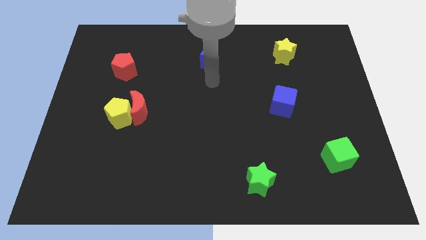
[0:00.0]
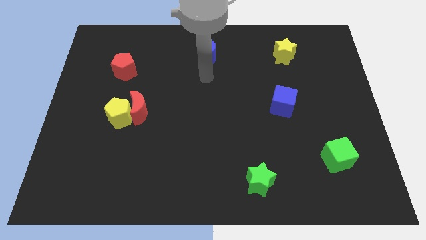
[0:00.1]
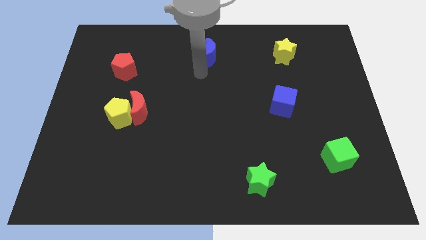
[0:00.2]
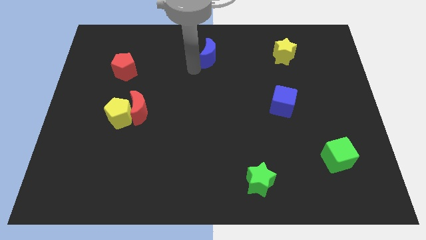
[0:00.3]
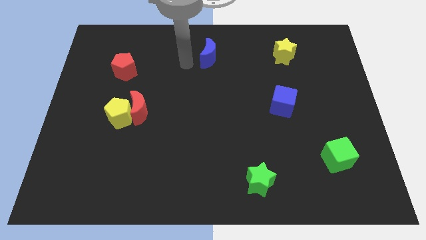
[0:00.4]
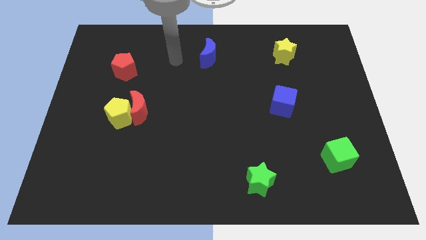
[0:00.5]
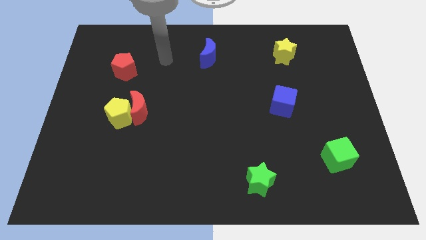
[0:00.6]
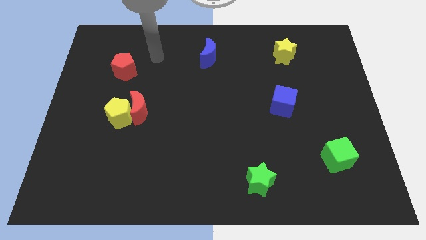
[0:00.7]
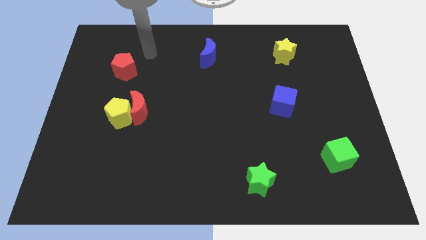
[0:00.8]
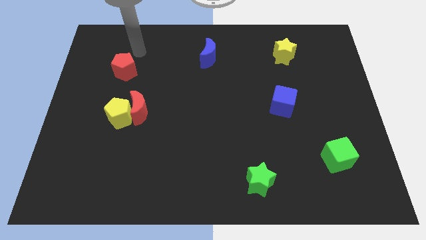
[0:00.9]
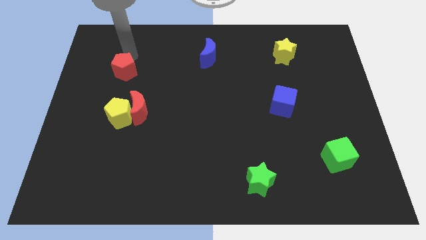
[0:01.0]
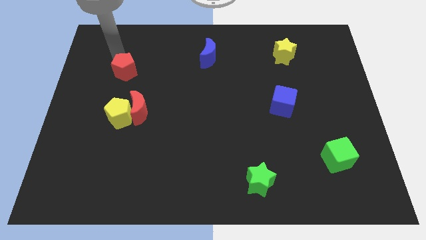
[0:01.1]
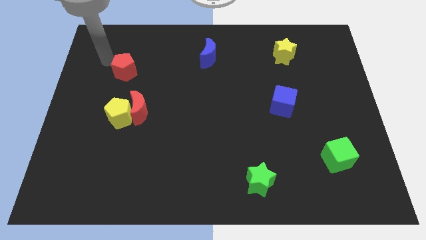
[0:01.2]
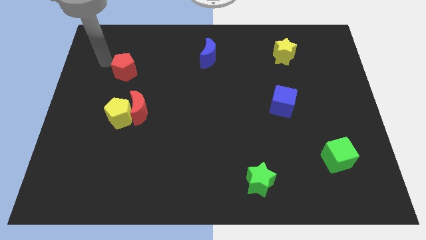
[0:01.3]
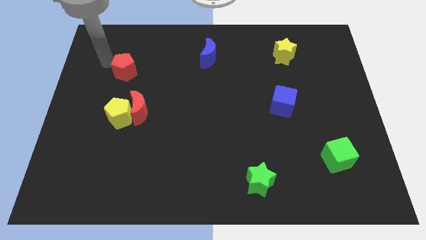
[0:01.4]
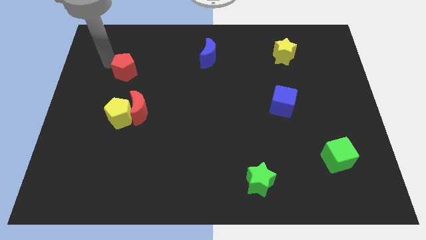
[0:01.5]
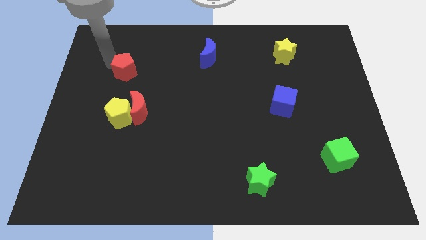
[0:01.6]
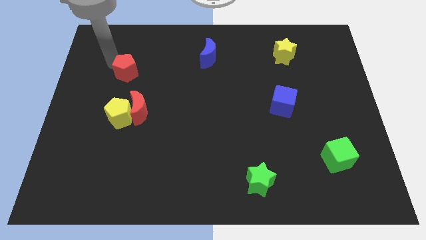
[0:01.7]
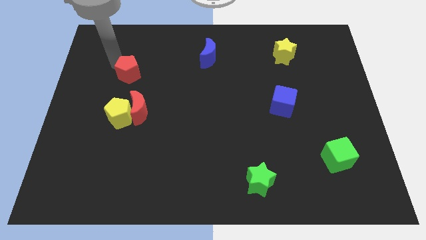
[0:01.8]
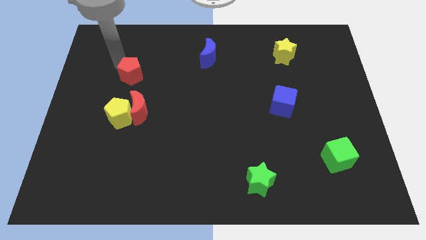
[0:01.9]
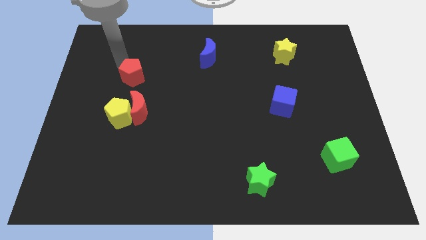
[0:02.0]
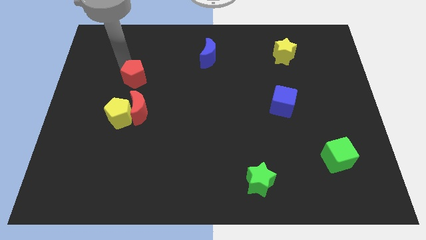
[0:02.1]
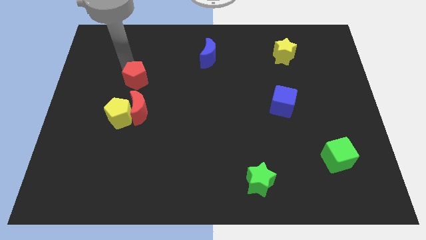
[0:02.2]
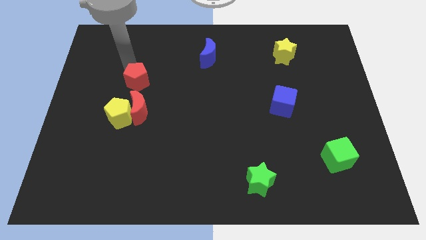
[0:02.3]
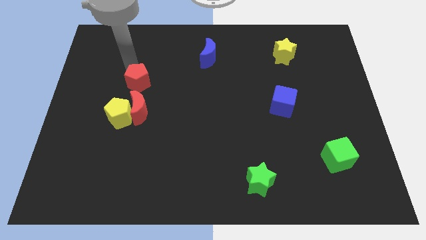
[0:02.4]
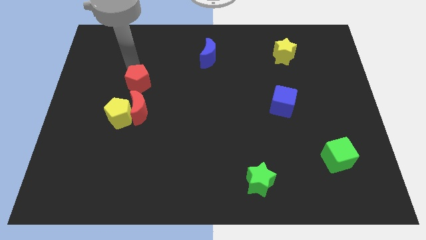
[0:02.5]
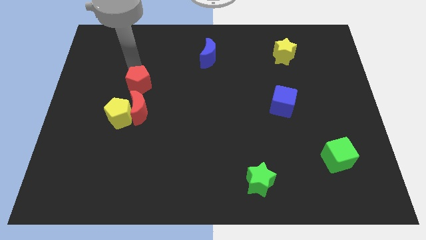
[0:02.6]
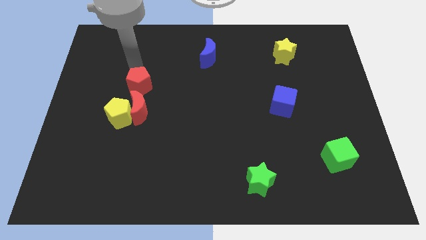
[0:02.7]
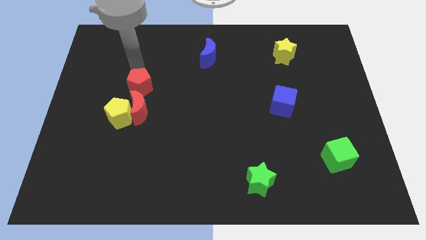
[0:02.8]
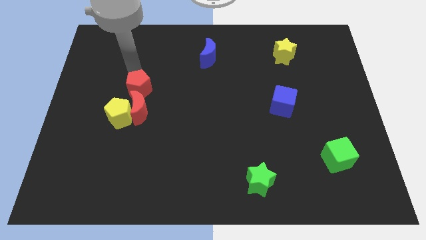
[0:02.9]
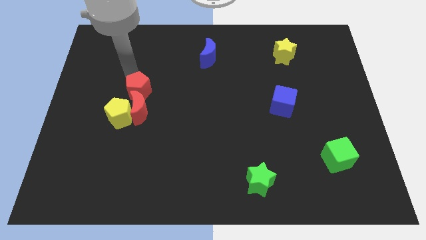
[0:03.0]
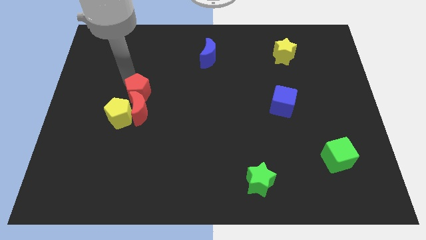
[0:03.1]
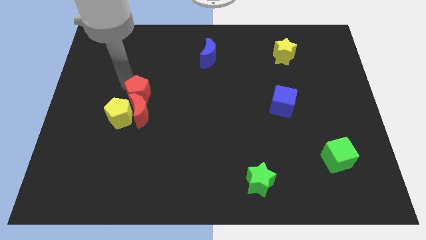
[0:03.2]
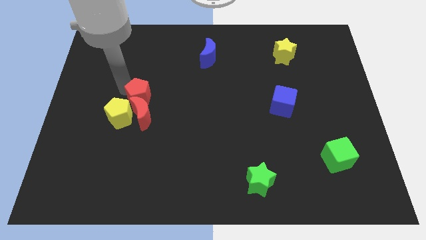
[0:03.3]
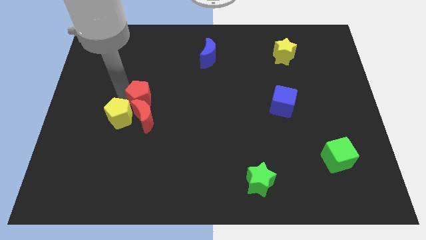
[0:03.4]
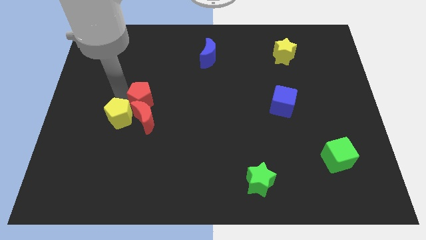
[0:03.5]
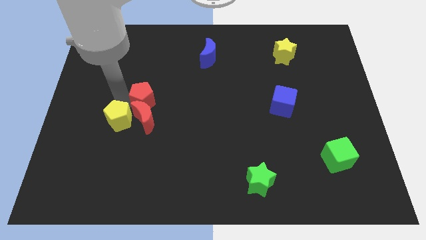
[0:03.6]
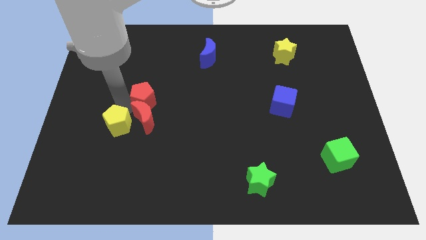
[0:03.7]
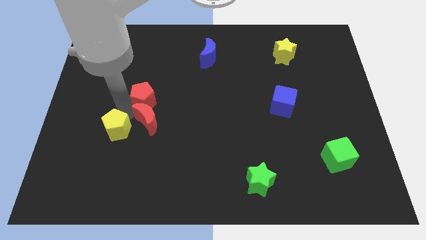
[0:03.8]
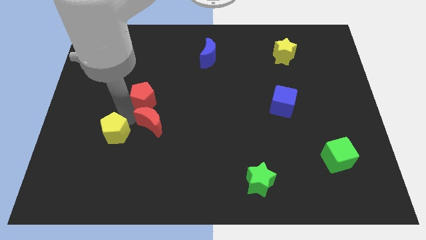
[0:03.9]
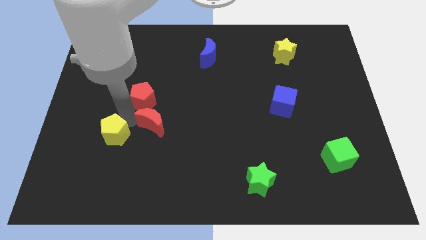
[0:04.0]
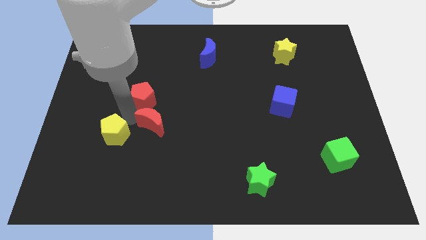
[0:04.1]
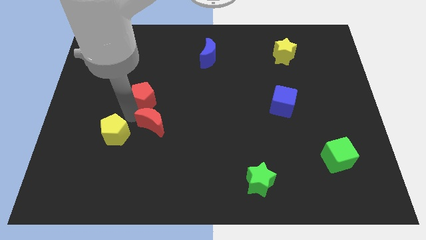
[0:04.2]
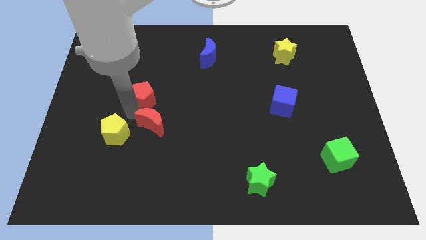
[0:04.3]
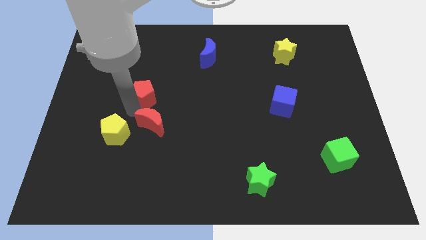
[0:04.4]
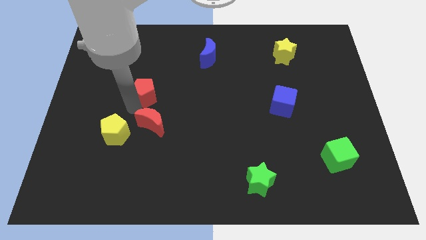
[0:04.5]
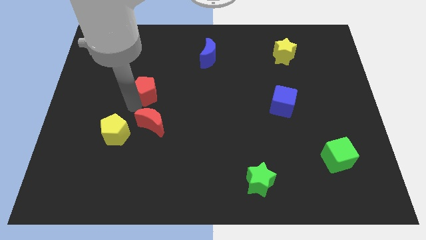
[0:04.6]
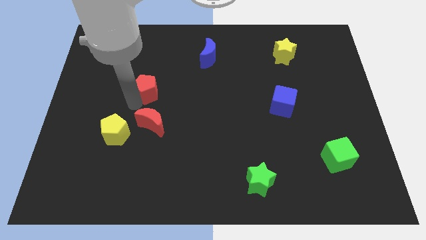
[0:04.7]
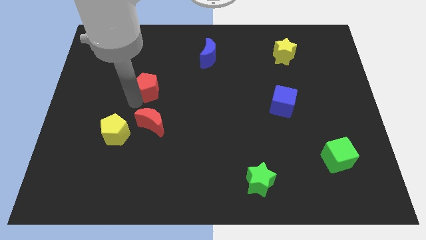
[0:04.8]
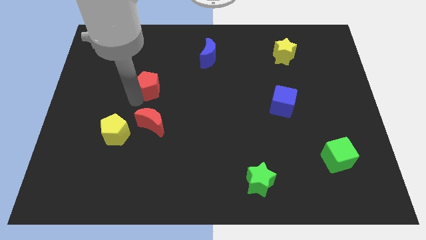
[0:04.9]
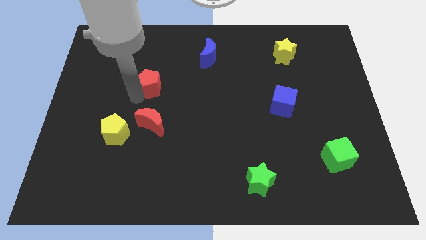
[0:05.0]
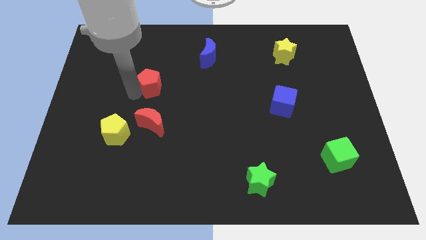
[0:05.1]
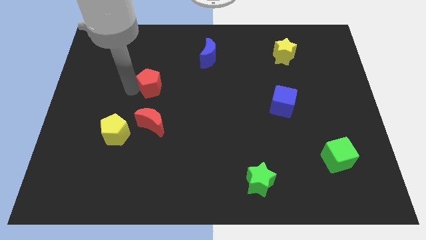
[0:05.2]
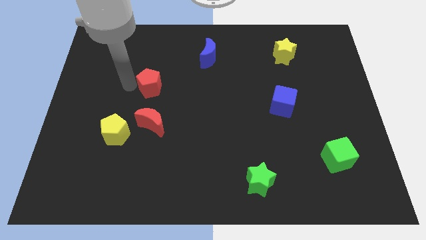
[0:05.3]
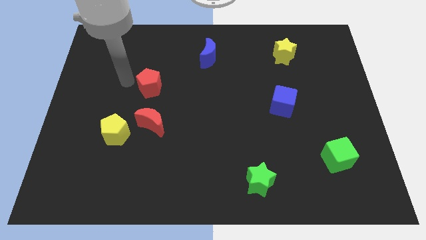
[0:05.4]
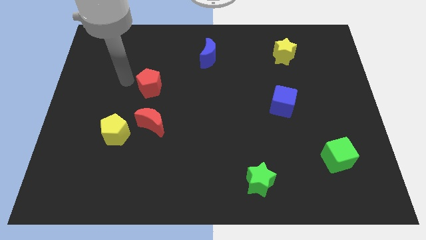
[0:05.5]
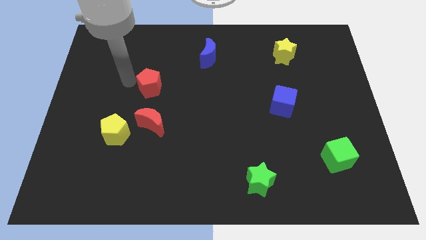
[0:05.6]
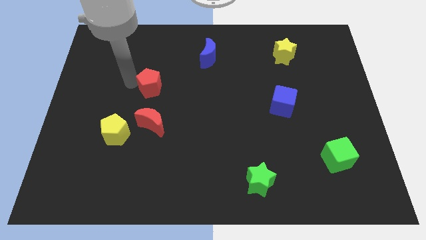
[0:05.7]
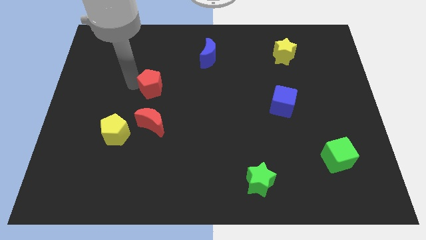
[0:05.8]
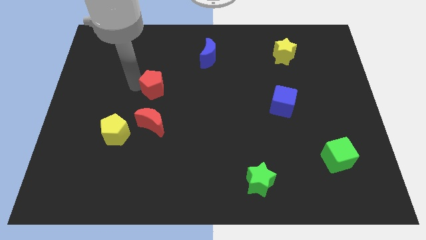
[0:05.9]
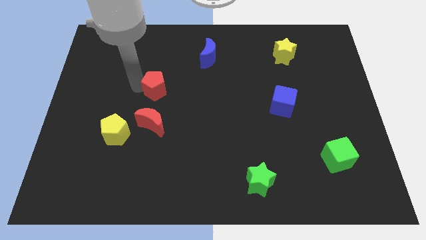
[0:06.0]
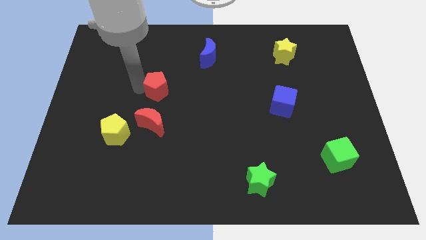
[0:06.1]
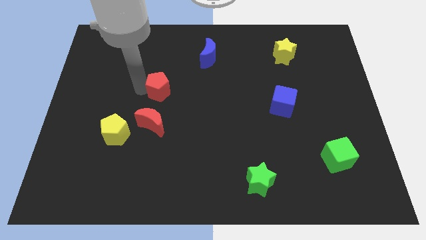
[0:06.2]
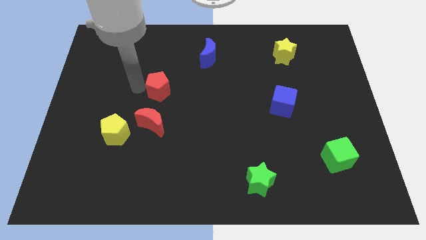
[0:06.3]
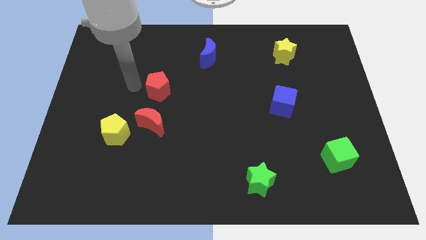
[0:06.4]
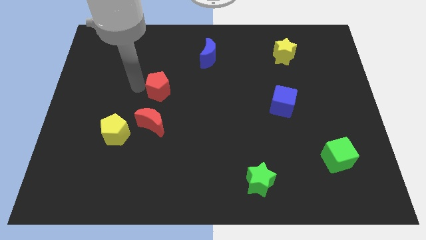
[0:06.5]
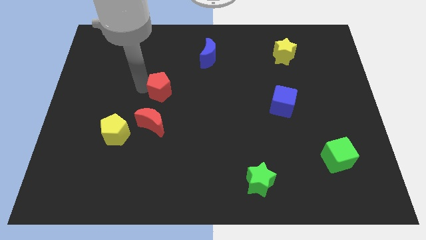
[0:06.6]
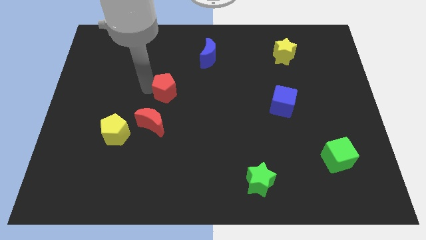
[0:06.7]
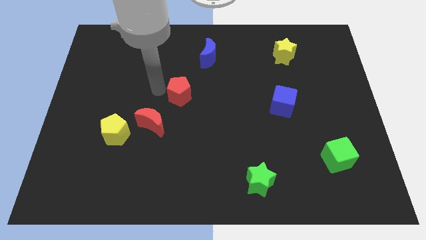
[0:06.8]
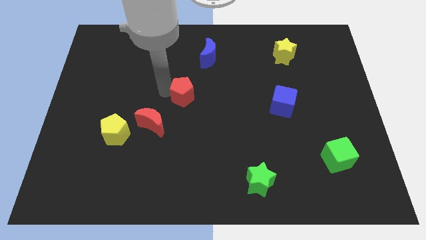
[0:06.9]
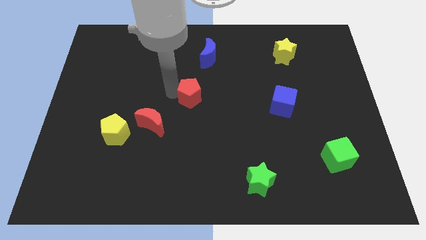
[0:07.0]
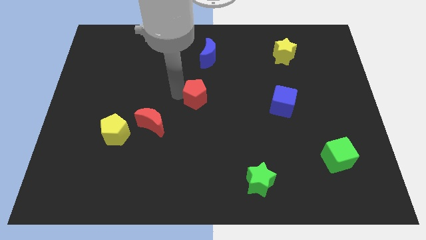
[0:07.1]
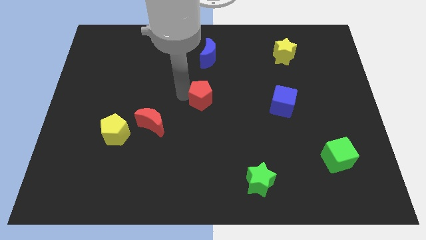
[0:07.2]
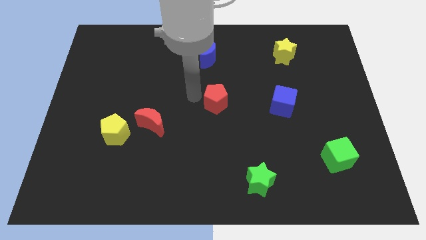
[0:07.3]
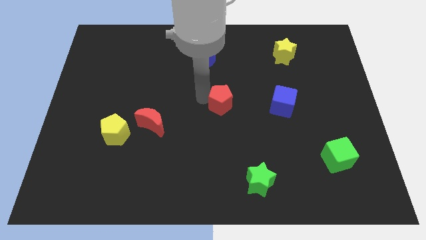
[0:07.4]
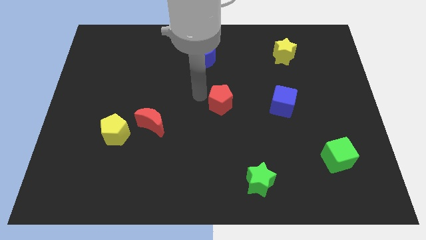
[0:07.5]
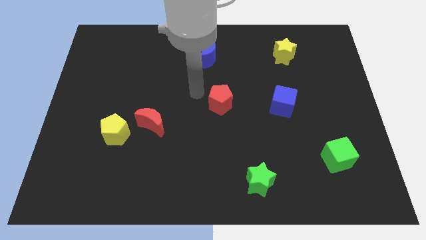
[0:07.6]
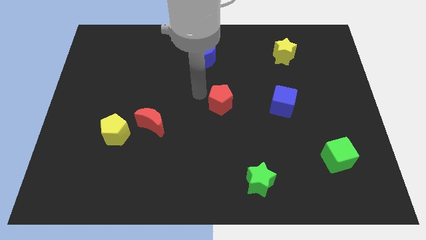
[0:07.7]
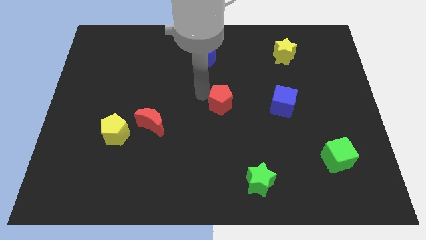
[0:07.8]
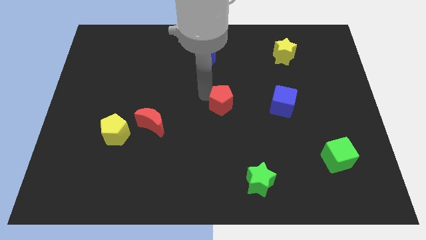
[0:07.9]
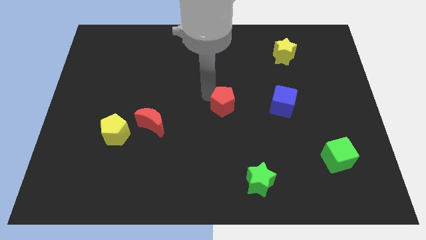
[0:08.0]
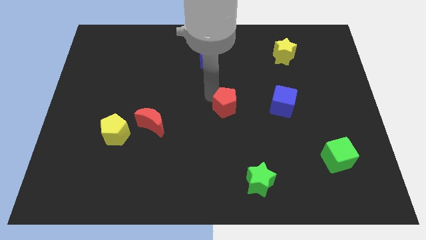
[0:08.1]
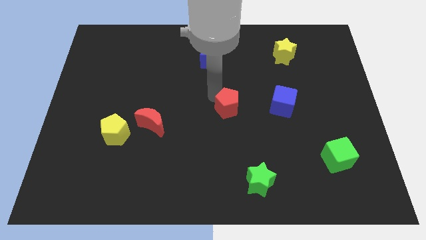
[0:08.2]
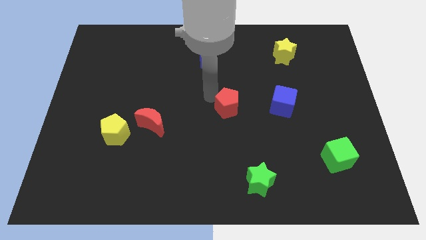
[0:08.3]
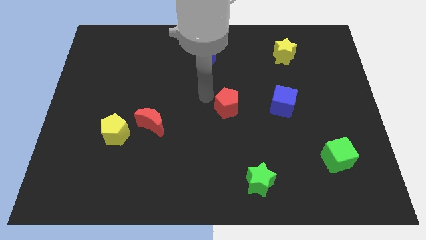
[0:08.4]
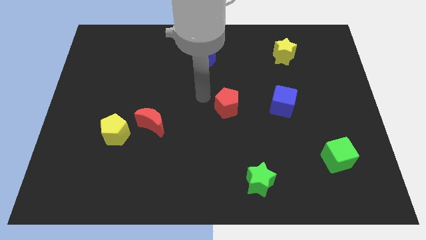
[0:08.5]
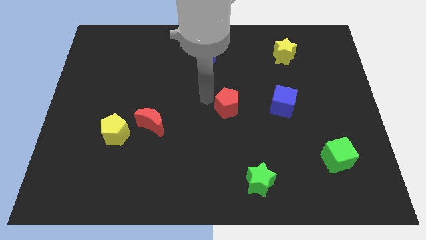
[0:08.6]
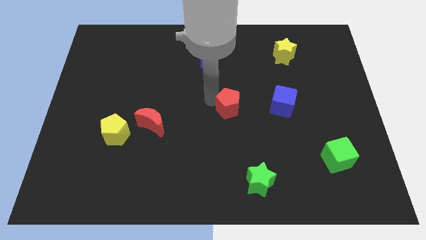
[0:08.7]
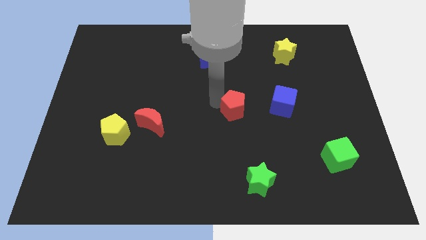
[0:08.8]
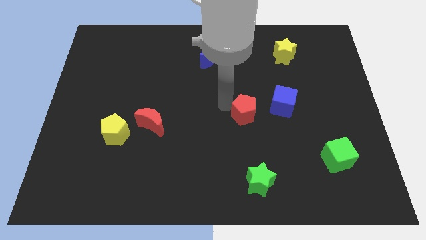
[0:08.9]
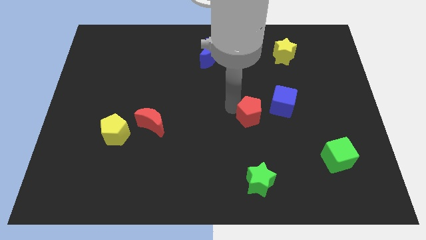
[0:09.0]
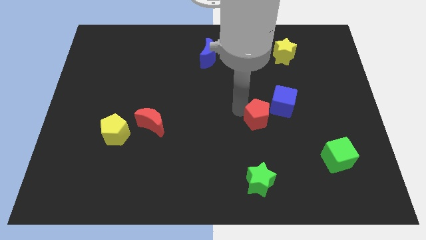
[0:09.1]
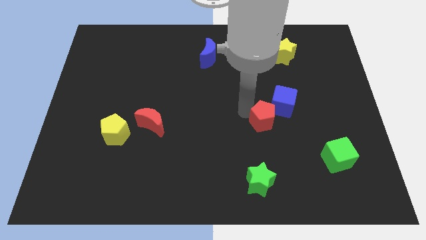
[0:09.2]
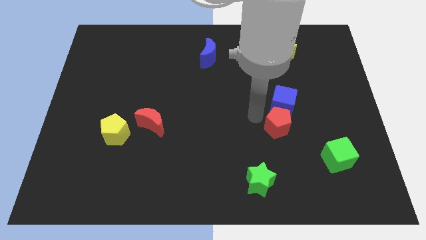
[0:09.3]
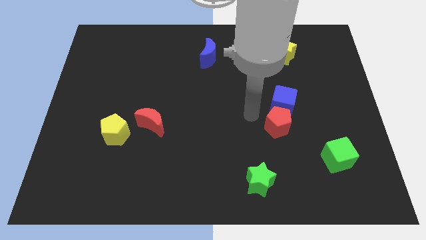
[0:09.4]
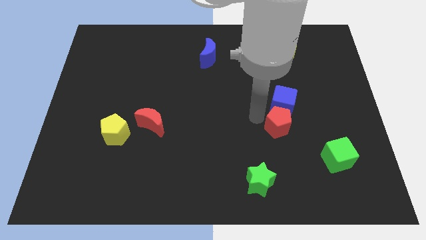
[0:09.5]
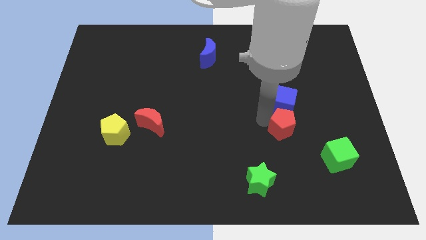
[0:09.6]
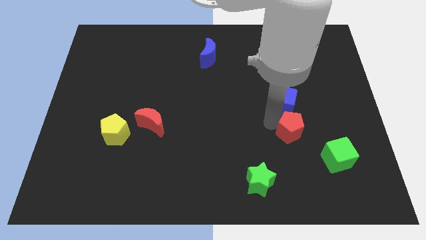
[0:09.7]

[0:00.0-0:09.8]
slide the red pentagon to the top left of the green cube
